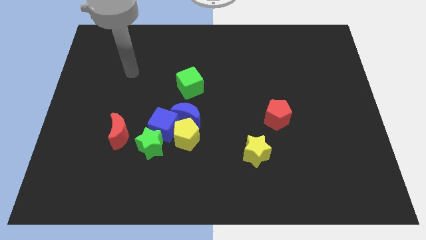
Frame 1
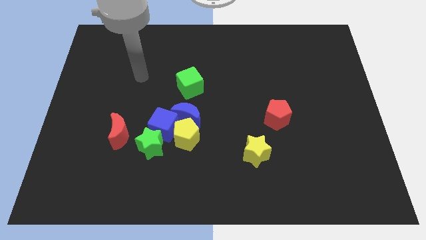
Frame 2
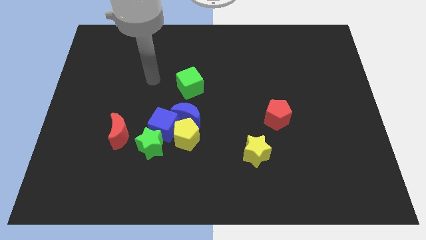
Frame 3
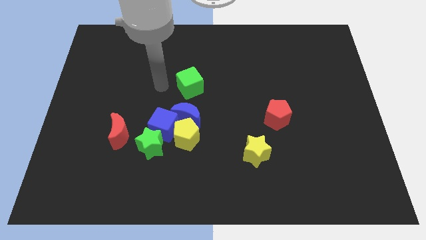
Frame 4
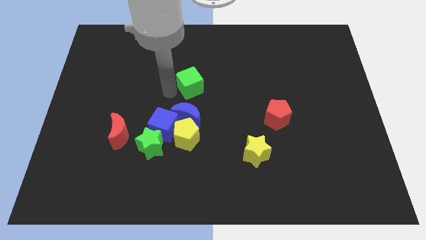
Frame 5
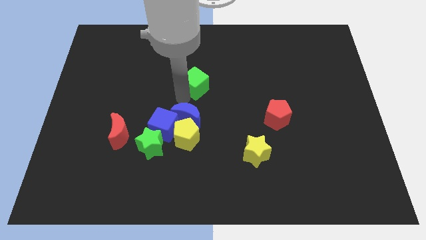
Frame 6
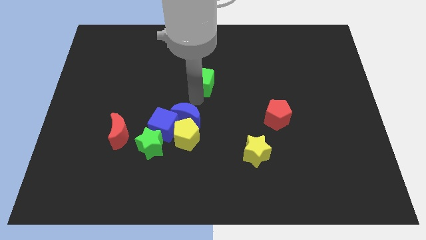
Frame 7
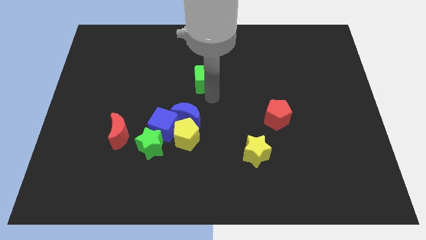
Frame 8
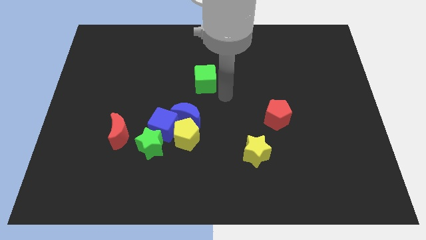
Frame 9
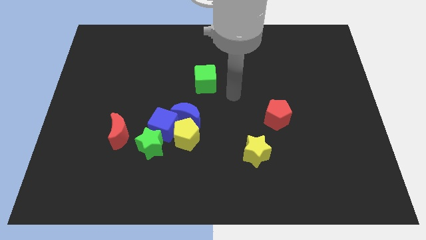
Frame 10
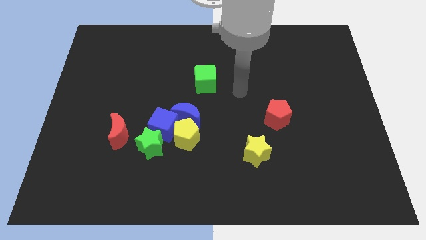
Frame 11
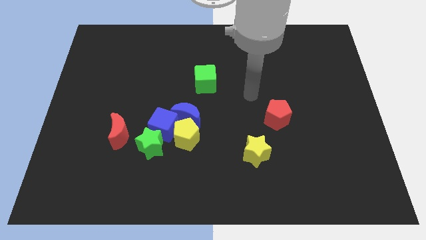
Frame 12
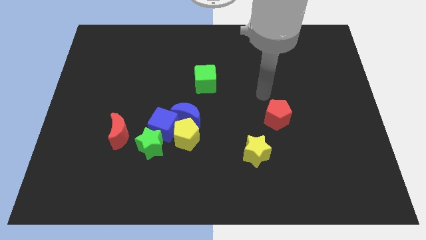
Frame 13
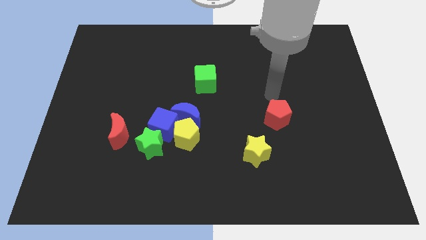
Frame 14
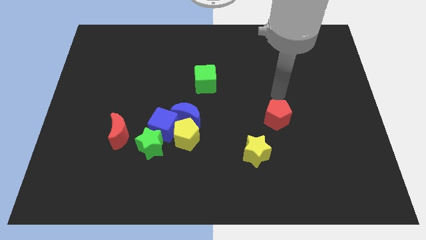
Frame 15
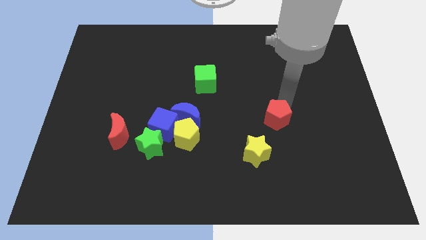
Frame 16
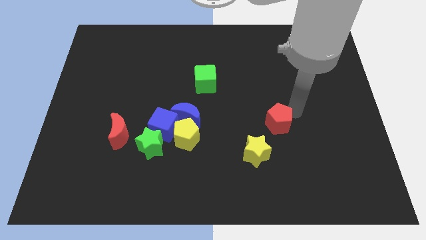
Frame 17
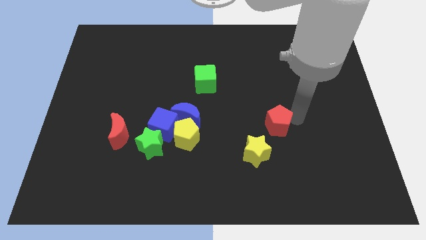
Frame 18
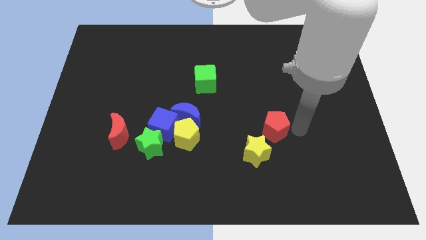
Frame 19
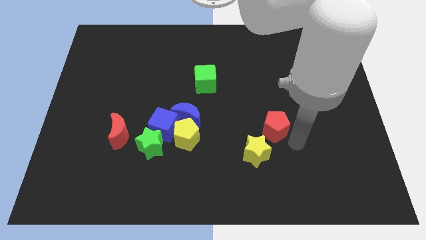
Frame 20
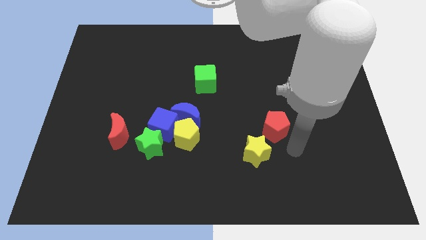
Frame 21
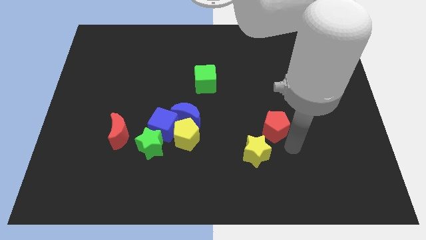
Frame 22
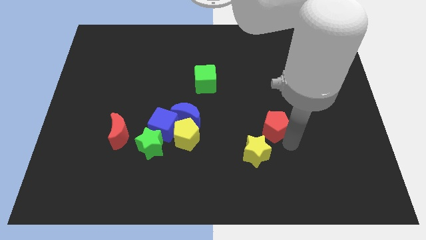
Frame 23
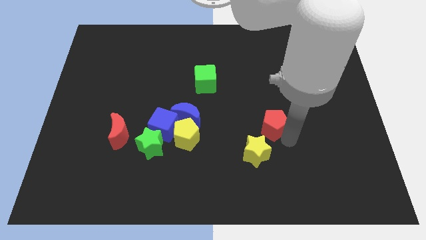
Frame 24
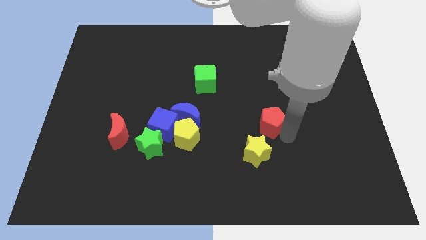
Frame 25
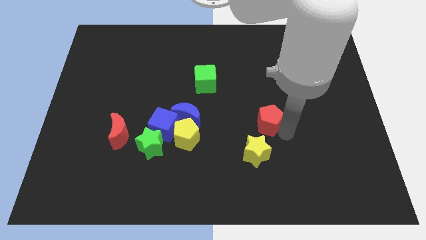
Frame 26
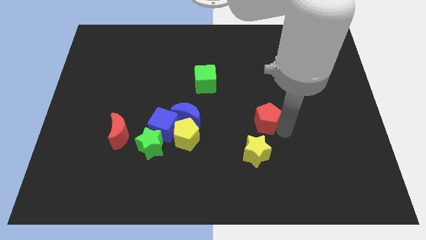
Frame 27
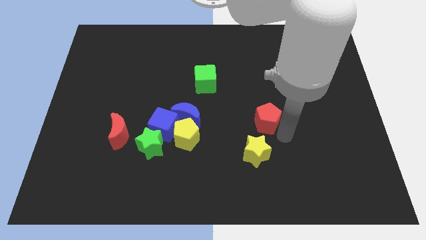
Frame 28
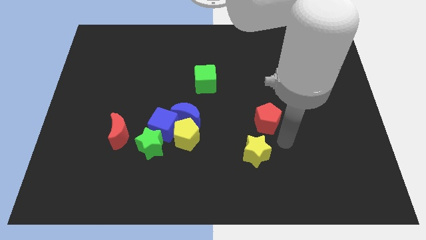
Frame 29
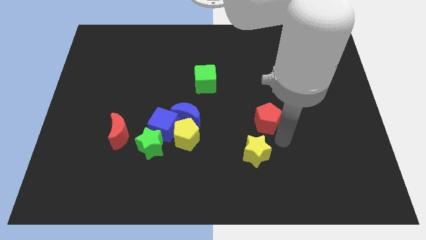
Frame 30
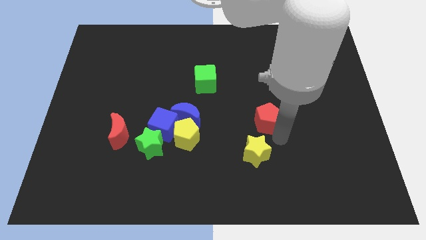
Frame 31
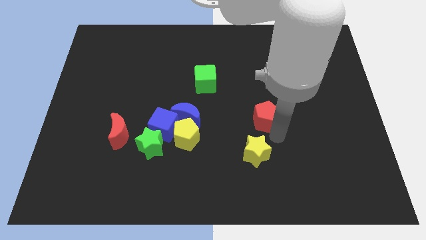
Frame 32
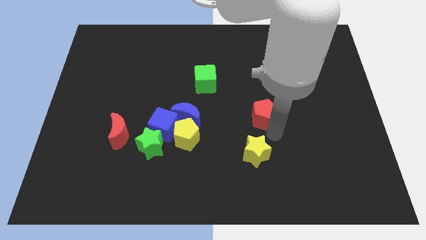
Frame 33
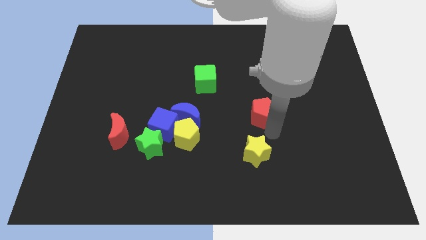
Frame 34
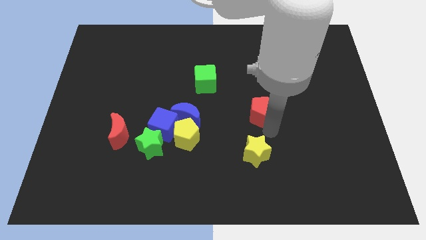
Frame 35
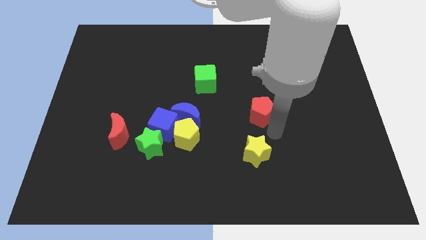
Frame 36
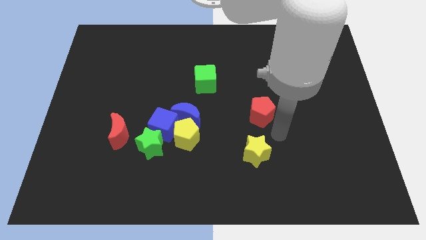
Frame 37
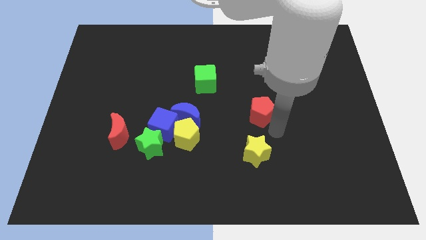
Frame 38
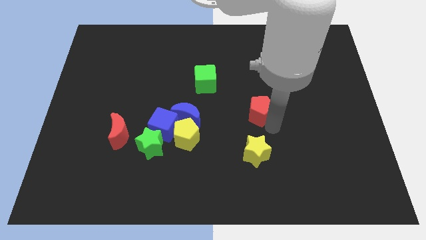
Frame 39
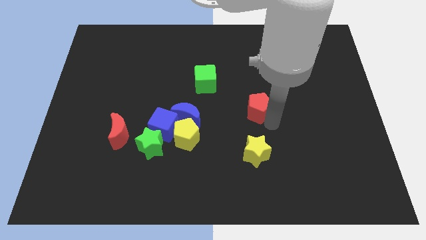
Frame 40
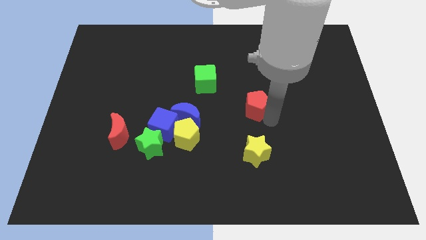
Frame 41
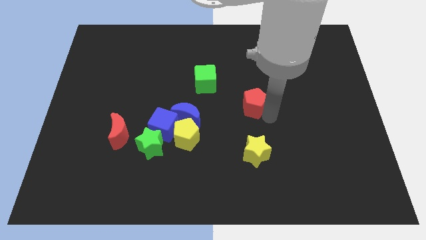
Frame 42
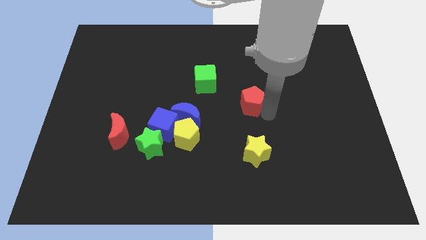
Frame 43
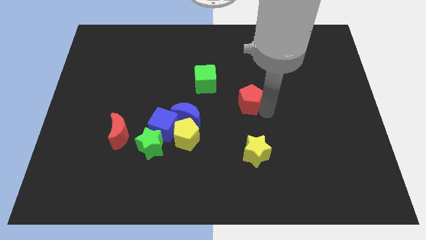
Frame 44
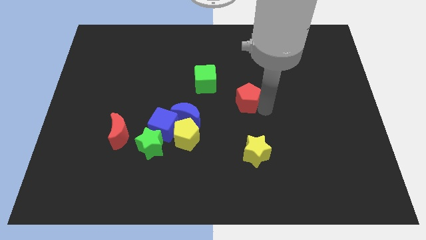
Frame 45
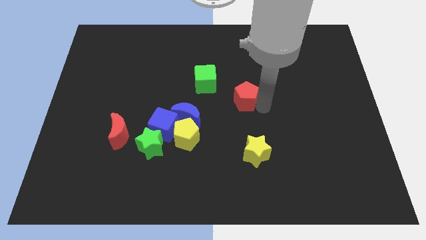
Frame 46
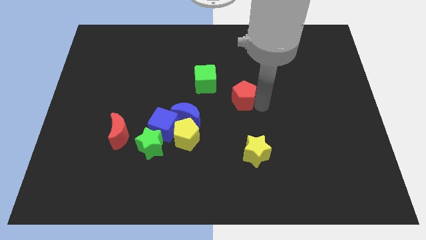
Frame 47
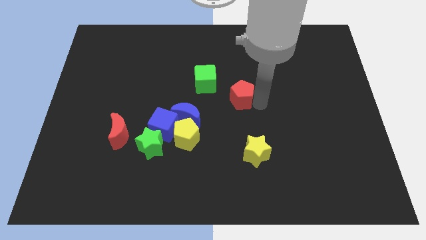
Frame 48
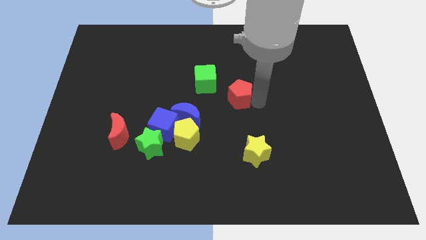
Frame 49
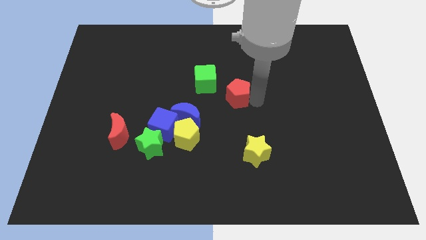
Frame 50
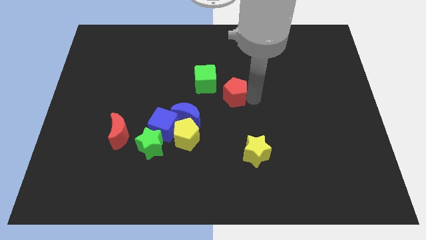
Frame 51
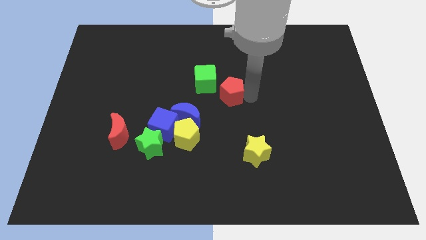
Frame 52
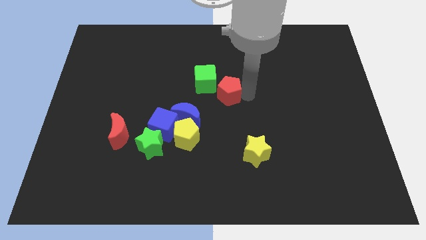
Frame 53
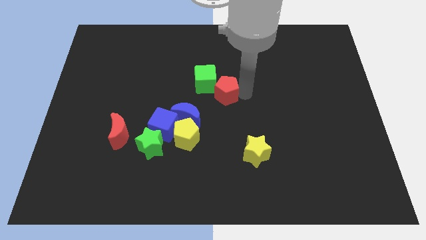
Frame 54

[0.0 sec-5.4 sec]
move the red pentagon close to the green cube

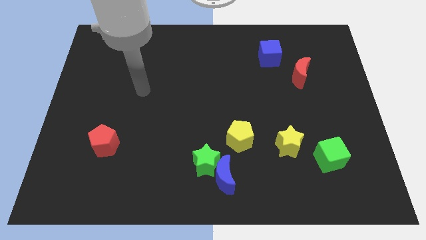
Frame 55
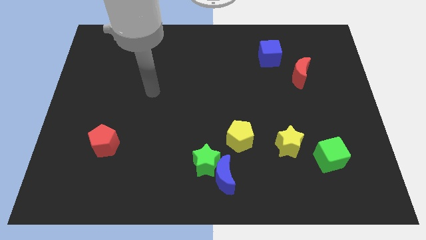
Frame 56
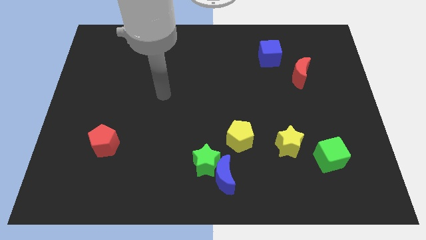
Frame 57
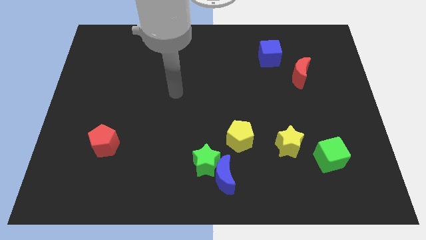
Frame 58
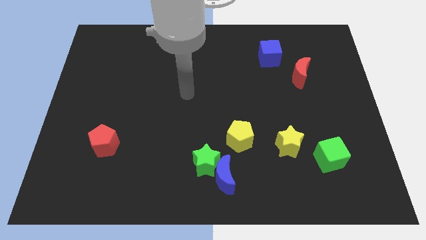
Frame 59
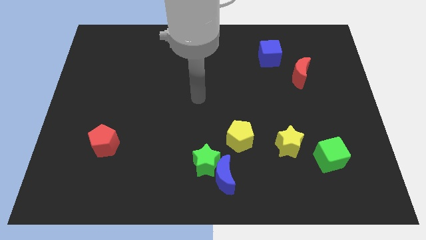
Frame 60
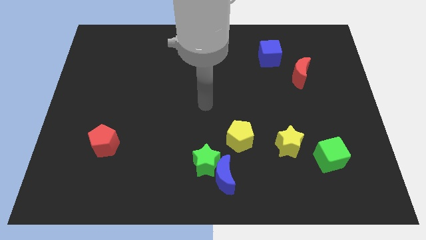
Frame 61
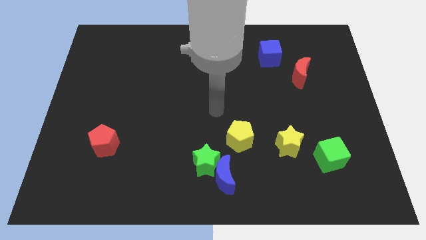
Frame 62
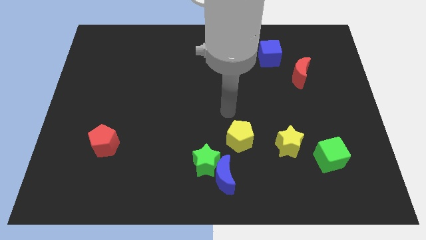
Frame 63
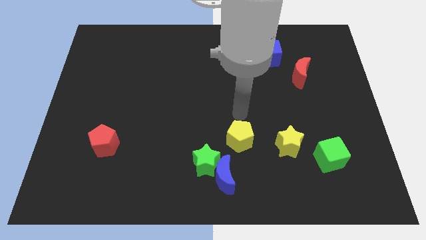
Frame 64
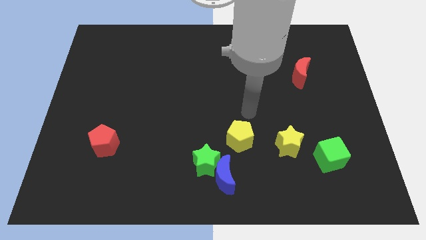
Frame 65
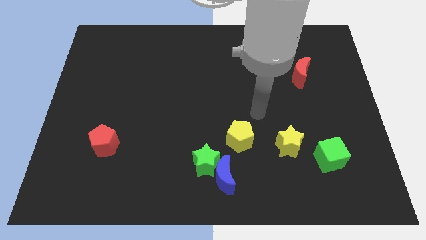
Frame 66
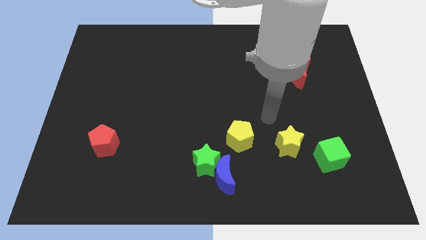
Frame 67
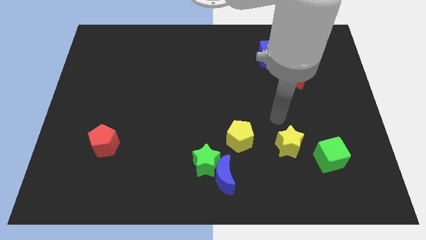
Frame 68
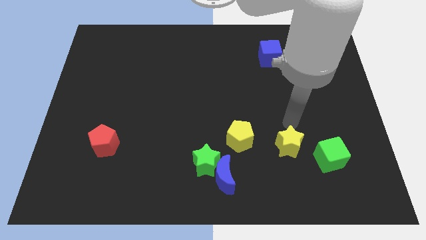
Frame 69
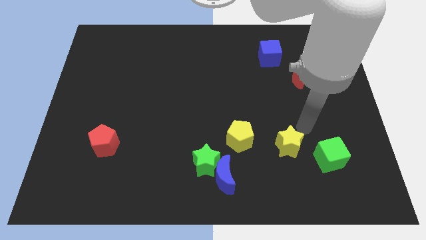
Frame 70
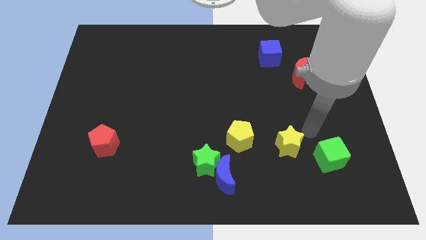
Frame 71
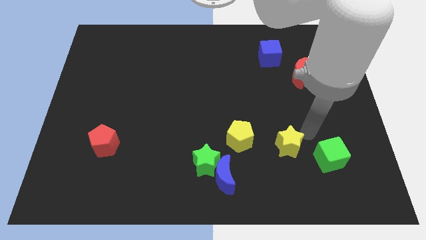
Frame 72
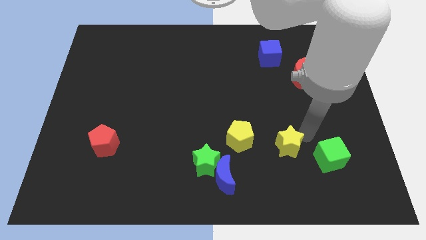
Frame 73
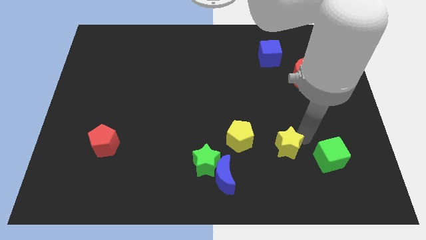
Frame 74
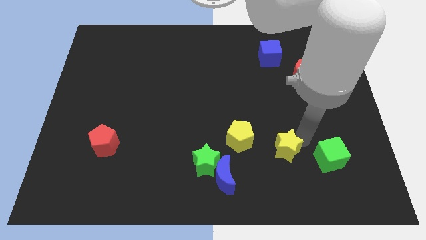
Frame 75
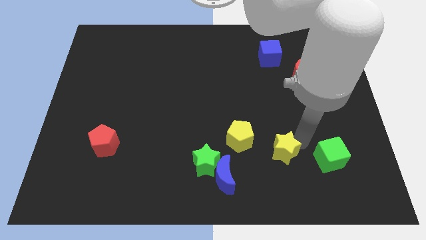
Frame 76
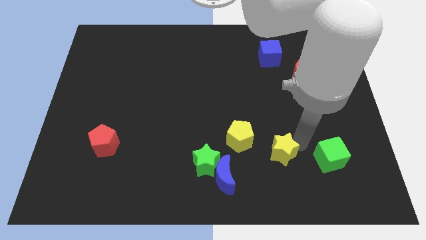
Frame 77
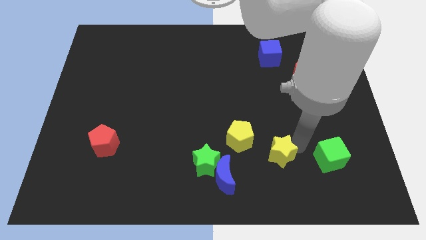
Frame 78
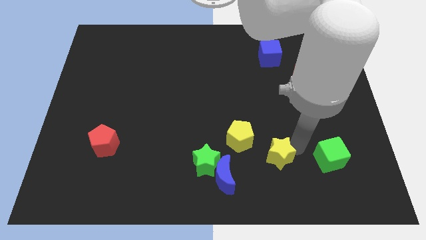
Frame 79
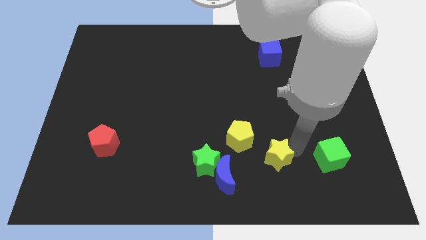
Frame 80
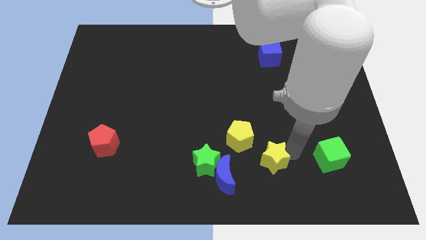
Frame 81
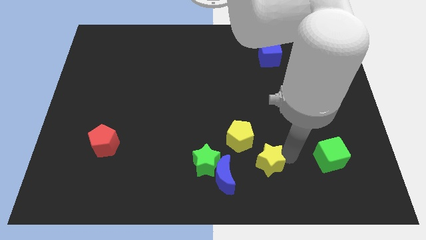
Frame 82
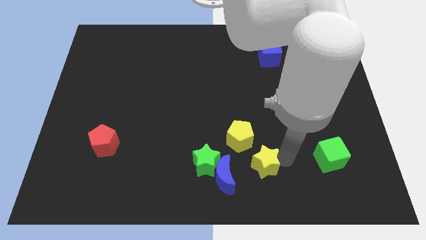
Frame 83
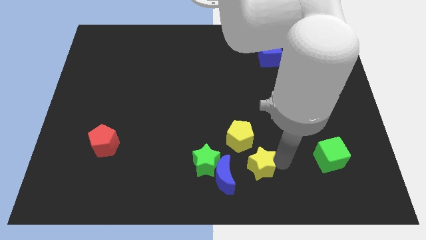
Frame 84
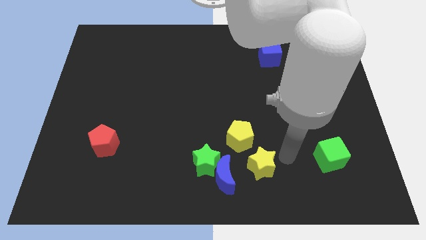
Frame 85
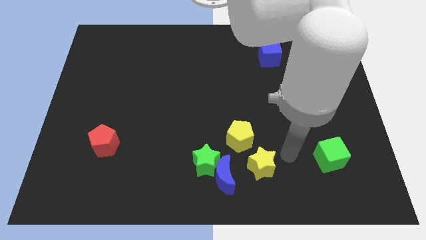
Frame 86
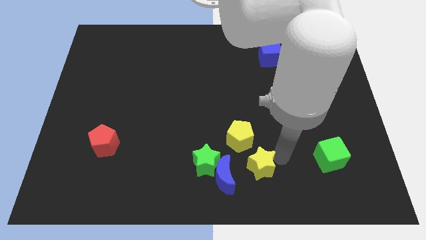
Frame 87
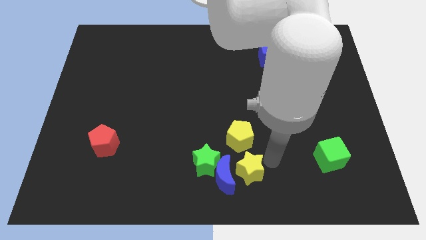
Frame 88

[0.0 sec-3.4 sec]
push the yellow star next to the blue moon
